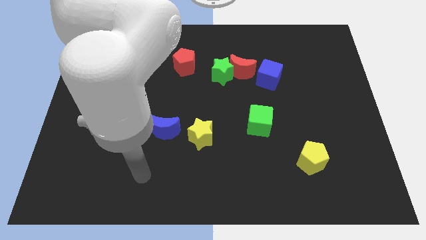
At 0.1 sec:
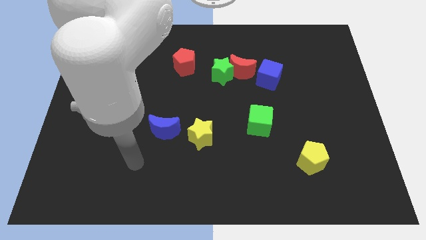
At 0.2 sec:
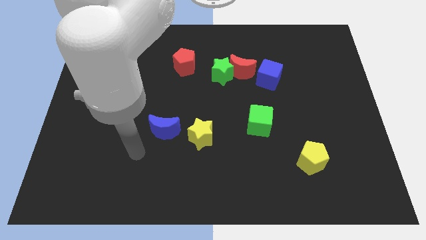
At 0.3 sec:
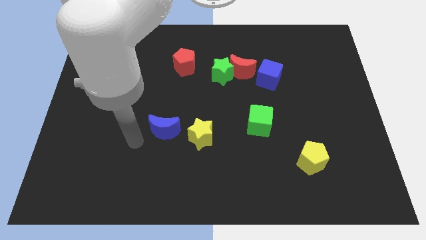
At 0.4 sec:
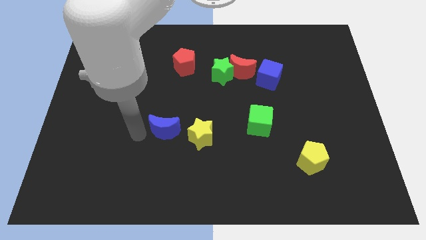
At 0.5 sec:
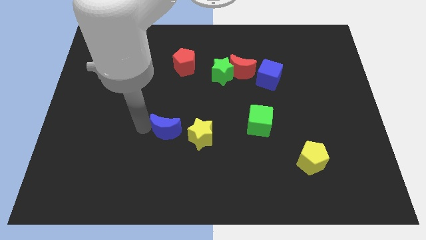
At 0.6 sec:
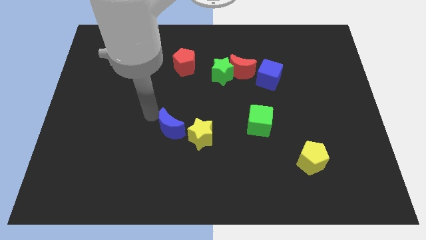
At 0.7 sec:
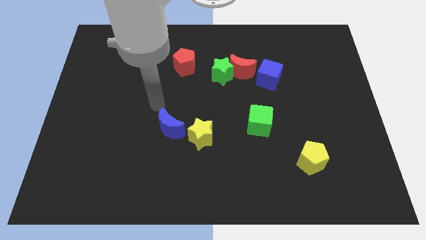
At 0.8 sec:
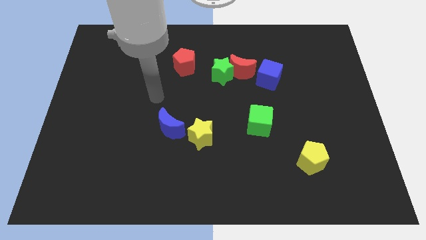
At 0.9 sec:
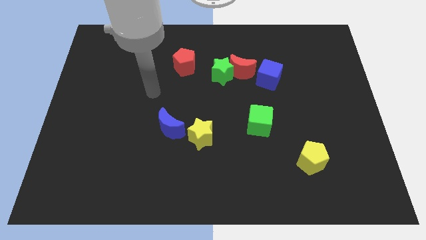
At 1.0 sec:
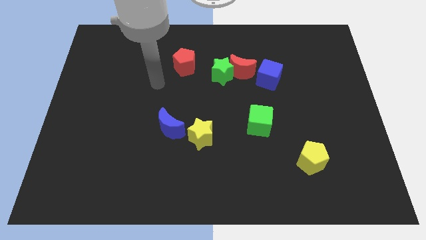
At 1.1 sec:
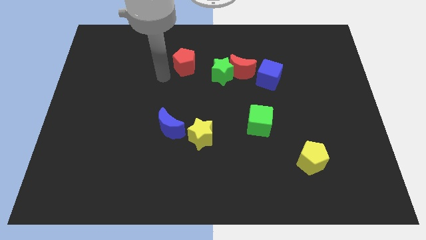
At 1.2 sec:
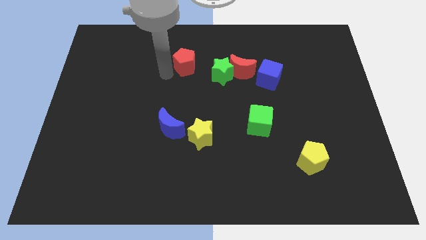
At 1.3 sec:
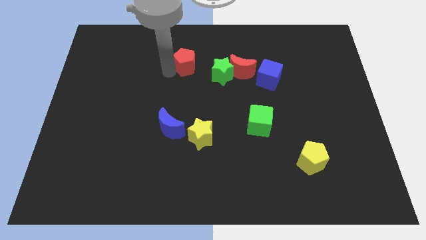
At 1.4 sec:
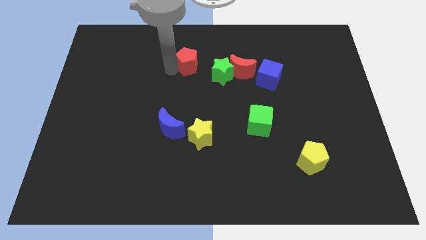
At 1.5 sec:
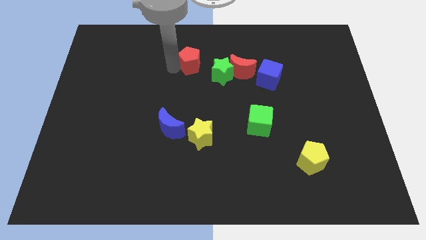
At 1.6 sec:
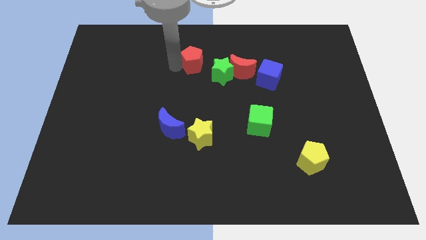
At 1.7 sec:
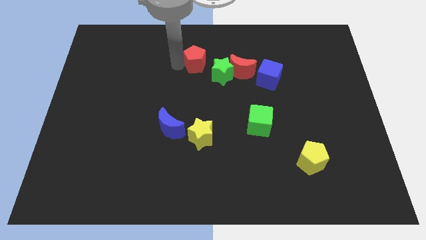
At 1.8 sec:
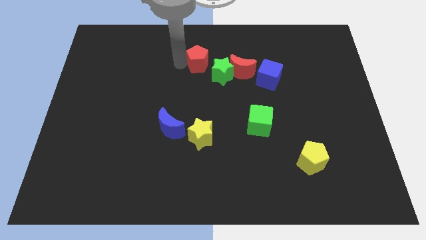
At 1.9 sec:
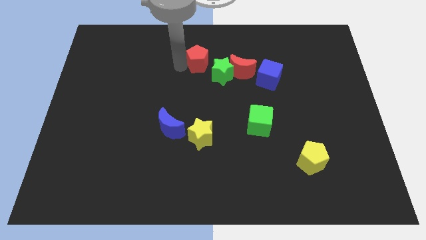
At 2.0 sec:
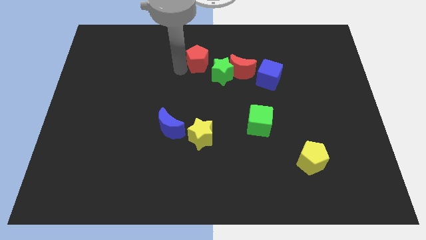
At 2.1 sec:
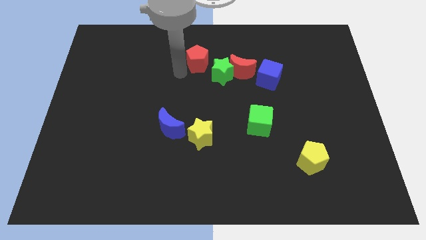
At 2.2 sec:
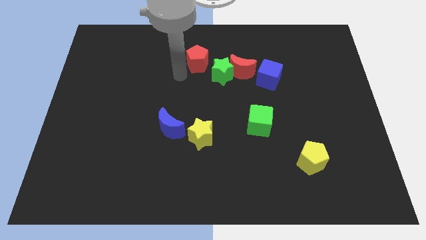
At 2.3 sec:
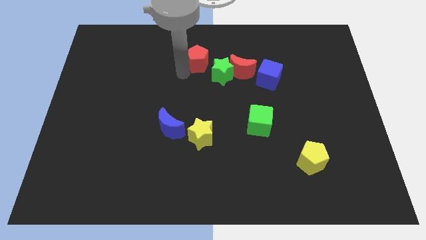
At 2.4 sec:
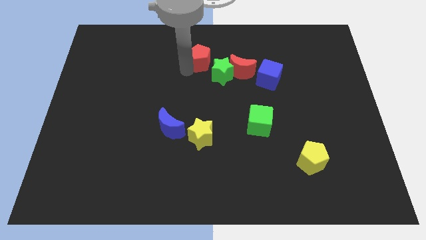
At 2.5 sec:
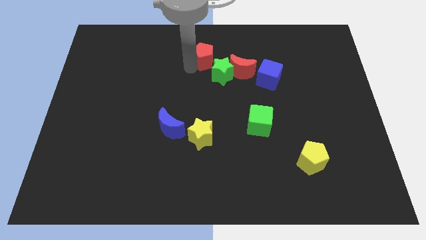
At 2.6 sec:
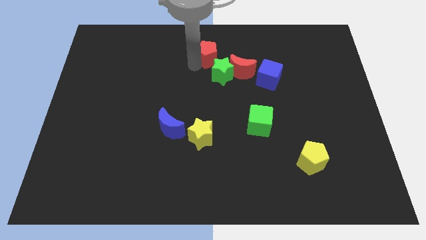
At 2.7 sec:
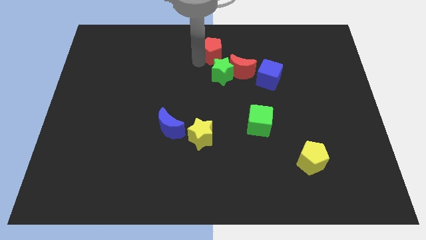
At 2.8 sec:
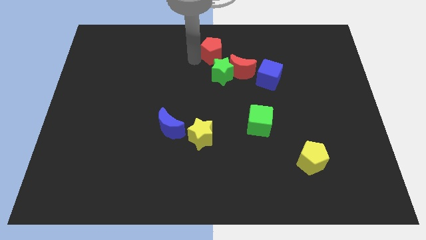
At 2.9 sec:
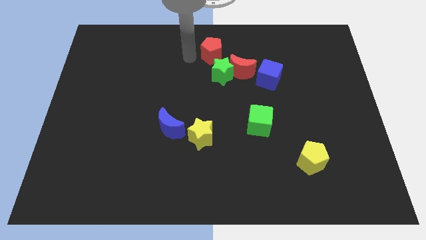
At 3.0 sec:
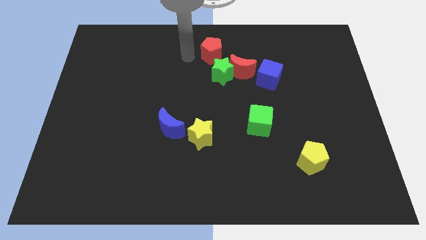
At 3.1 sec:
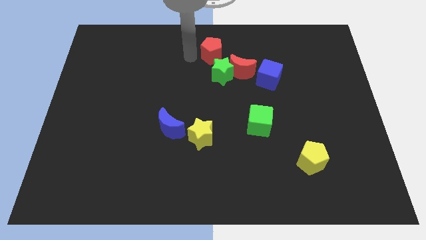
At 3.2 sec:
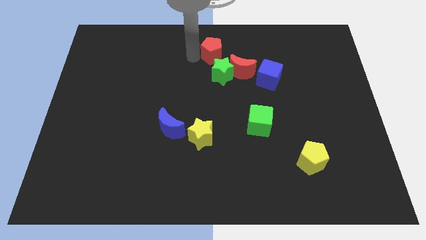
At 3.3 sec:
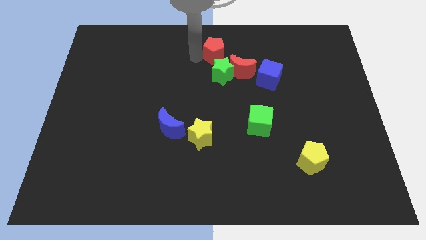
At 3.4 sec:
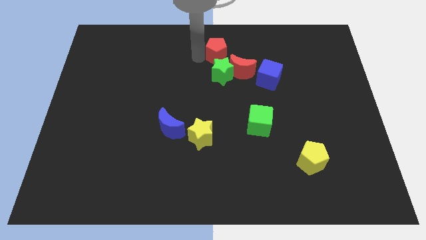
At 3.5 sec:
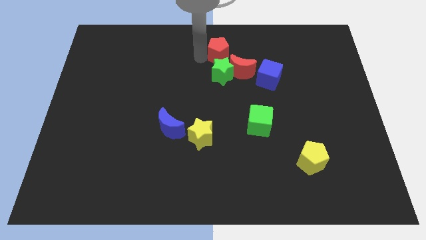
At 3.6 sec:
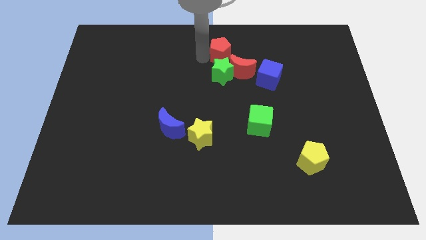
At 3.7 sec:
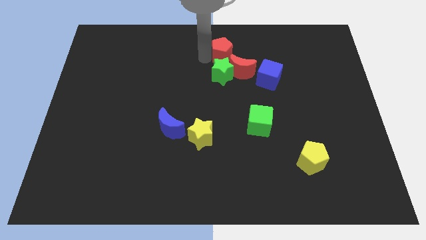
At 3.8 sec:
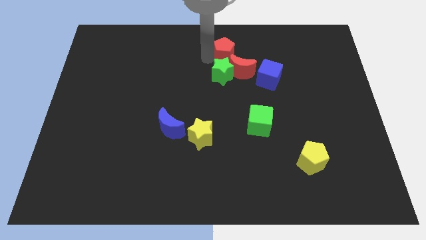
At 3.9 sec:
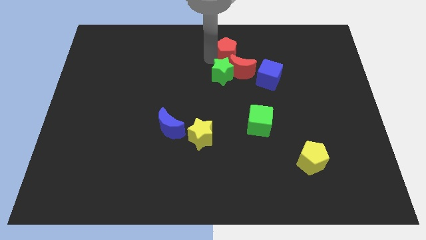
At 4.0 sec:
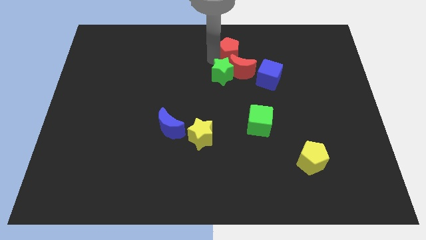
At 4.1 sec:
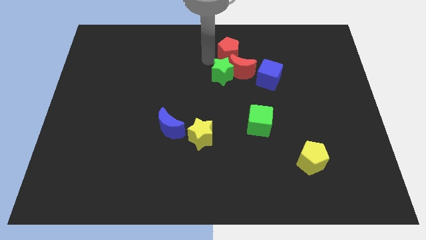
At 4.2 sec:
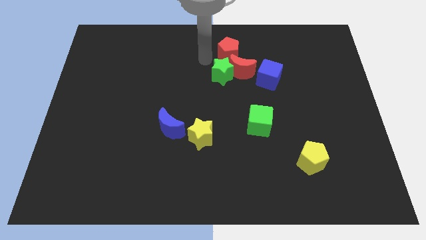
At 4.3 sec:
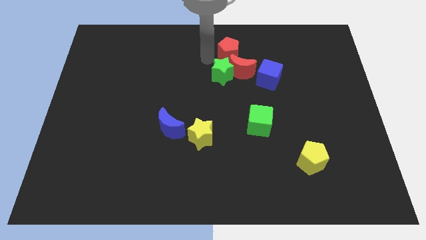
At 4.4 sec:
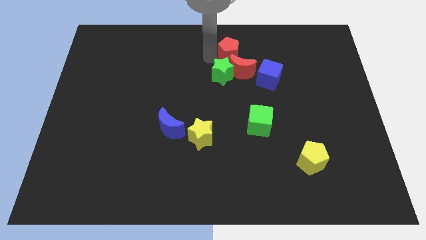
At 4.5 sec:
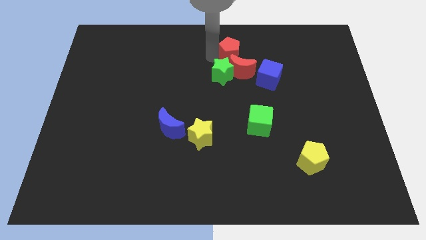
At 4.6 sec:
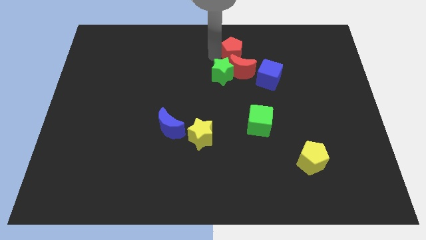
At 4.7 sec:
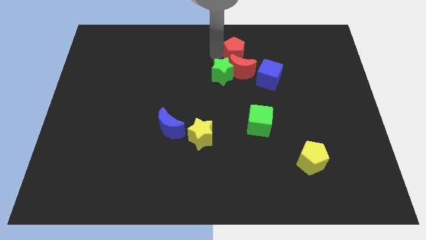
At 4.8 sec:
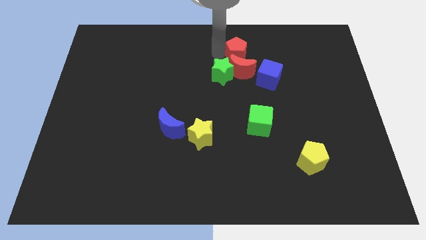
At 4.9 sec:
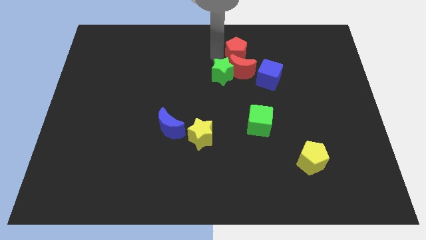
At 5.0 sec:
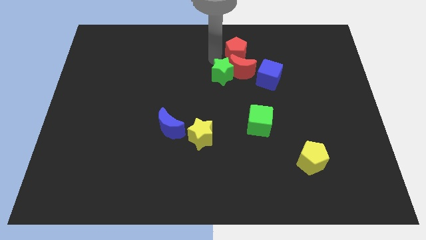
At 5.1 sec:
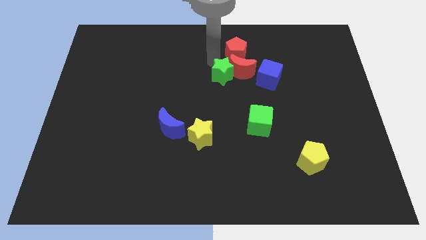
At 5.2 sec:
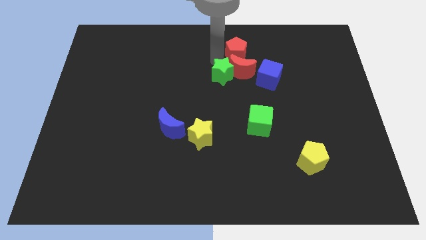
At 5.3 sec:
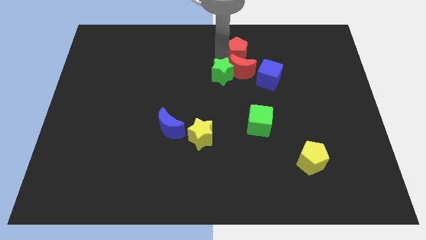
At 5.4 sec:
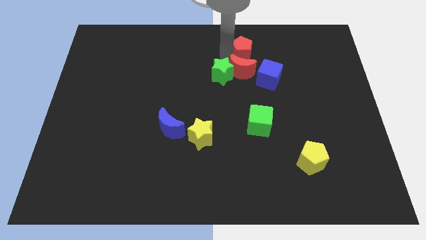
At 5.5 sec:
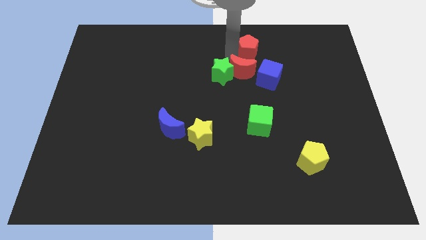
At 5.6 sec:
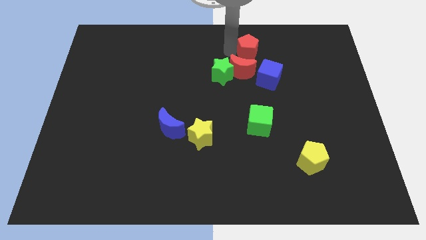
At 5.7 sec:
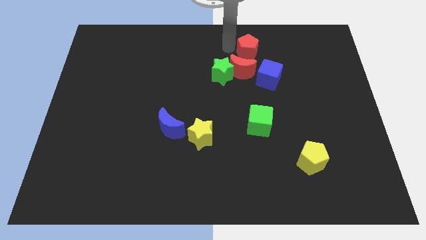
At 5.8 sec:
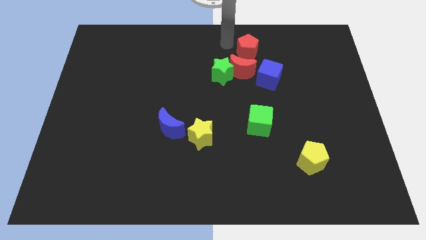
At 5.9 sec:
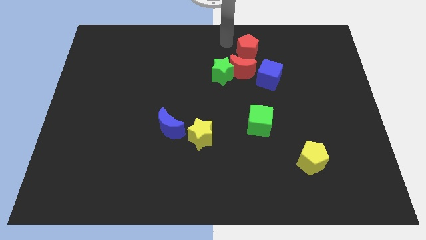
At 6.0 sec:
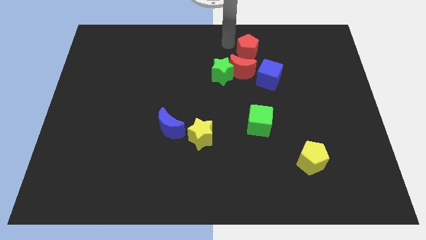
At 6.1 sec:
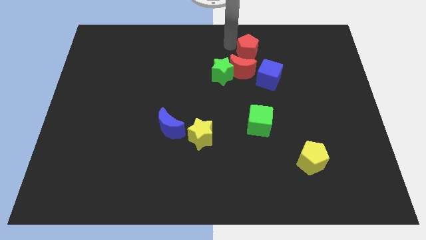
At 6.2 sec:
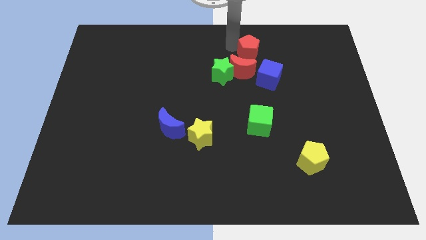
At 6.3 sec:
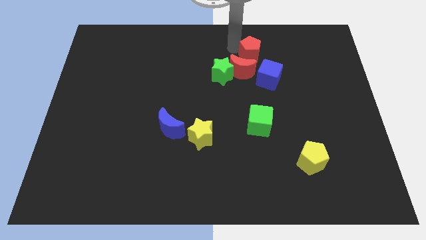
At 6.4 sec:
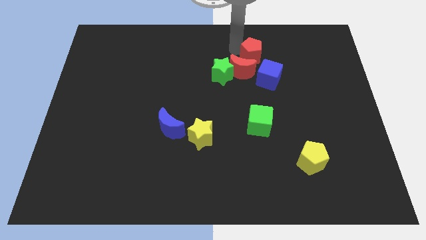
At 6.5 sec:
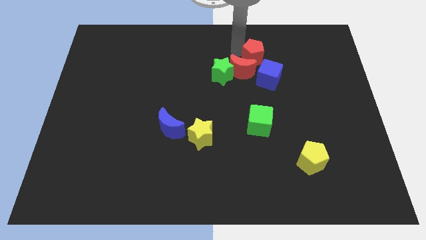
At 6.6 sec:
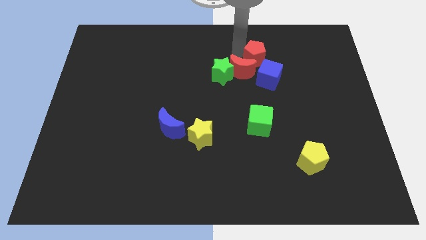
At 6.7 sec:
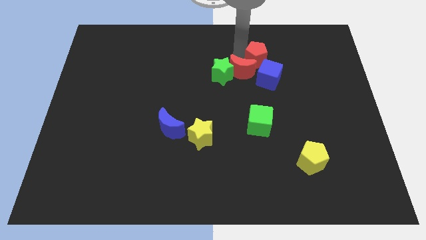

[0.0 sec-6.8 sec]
slide the red pentagon just right of the red moon
